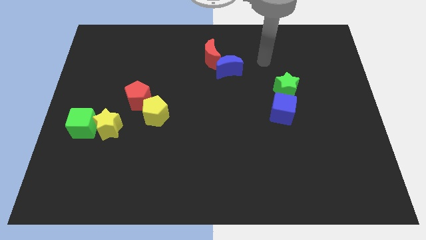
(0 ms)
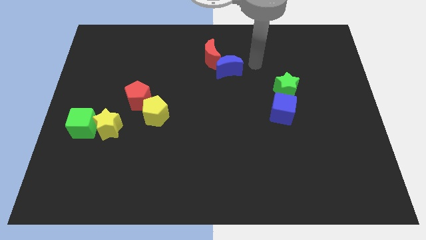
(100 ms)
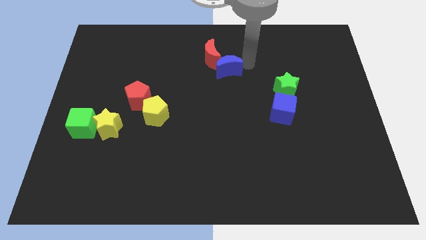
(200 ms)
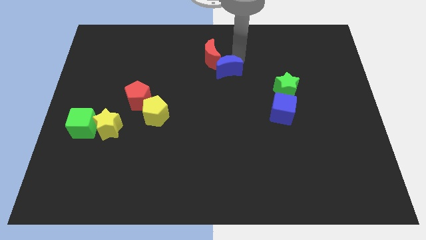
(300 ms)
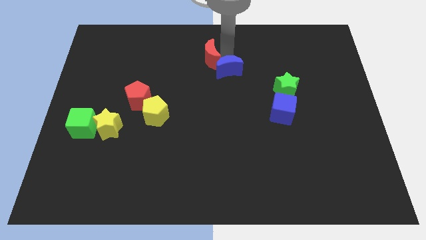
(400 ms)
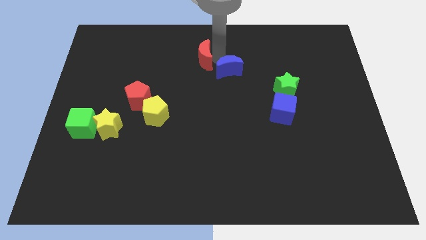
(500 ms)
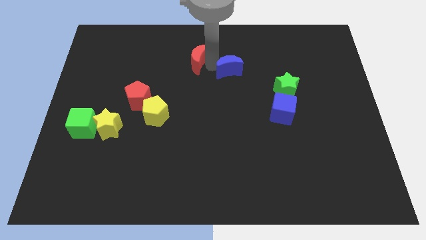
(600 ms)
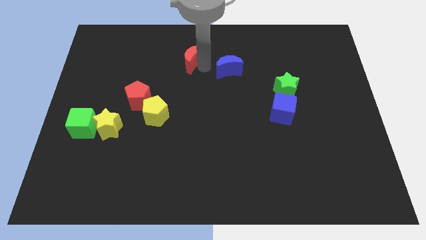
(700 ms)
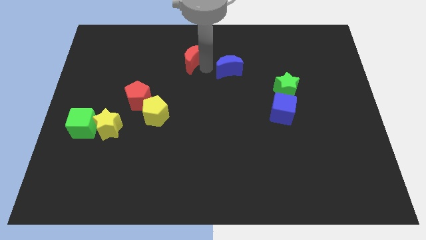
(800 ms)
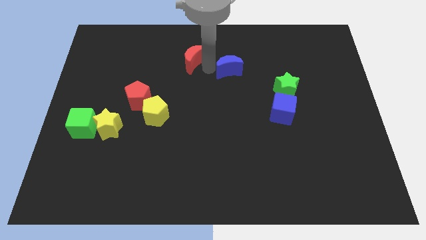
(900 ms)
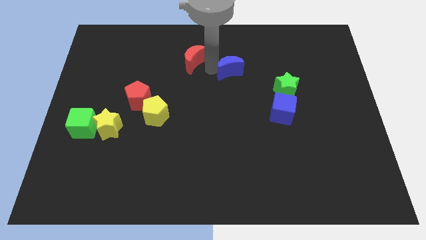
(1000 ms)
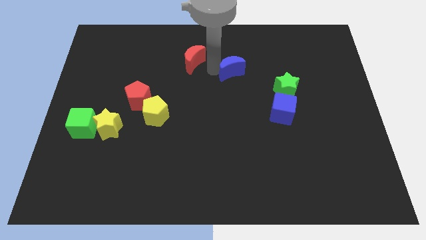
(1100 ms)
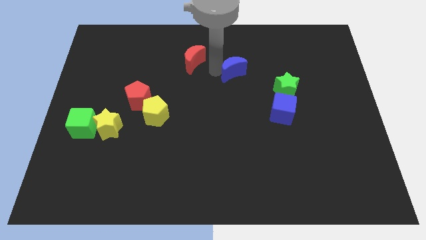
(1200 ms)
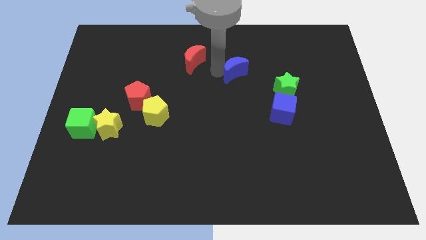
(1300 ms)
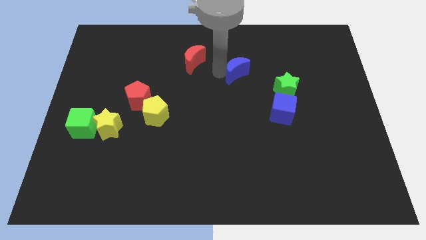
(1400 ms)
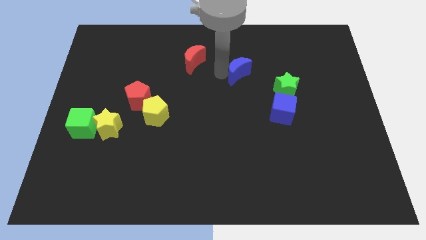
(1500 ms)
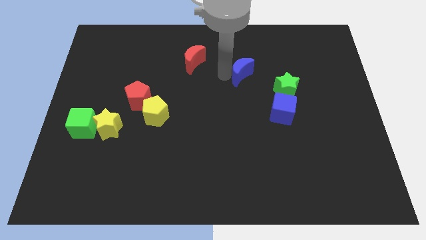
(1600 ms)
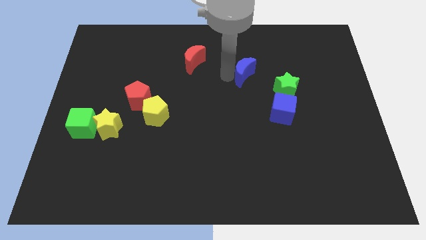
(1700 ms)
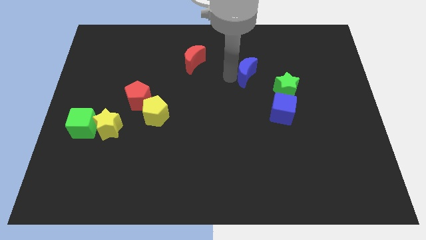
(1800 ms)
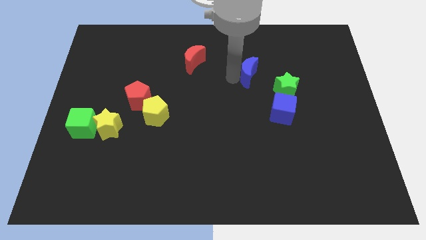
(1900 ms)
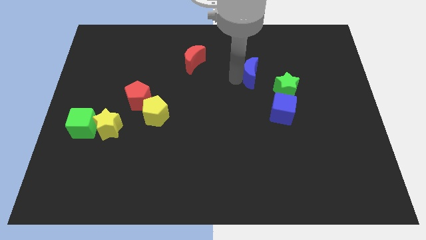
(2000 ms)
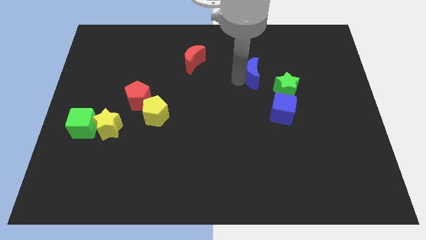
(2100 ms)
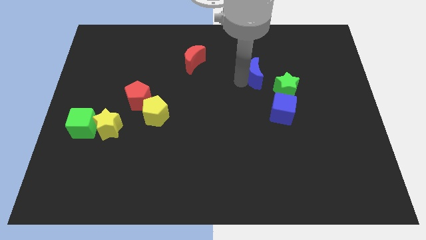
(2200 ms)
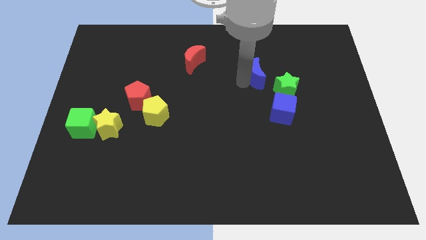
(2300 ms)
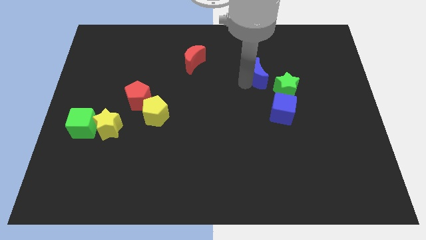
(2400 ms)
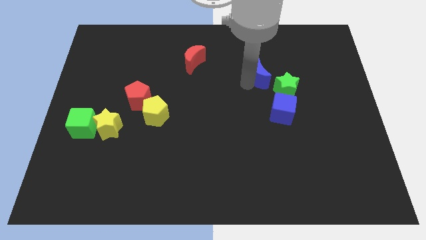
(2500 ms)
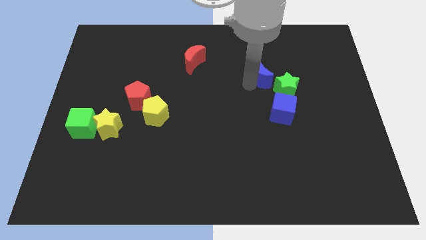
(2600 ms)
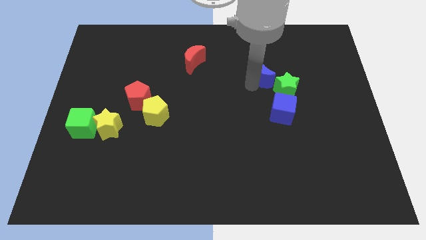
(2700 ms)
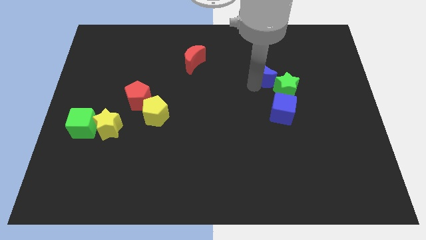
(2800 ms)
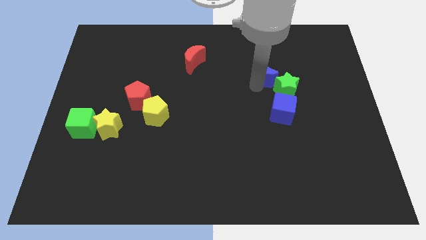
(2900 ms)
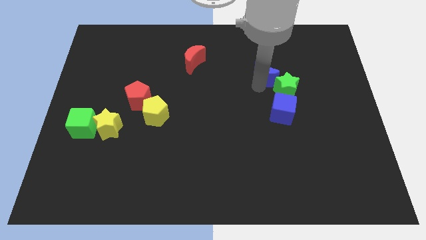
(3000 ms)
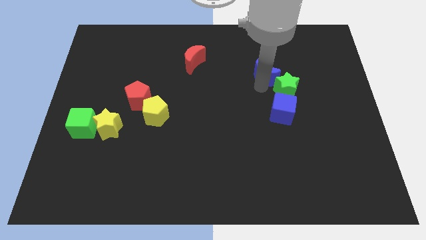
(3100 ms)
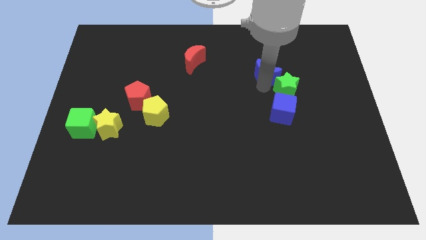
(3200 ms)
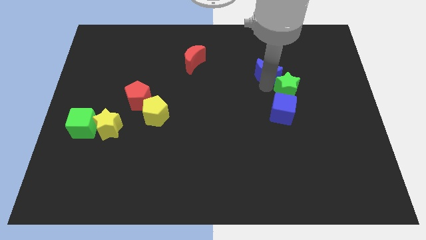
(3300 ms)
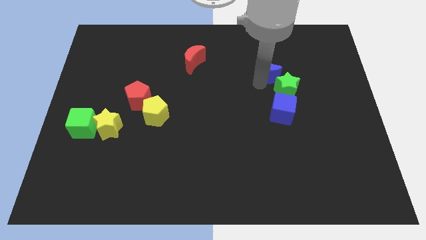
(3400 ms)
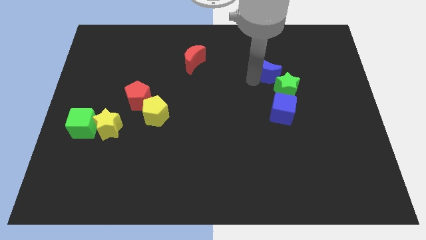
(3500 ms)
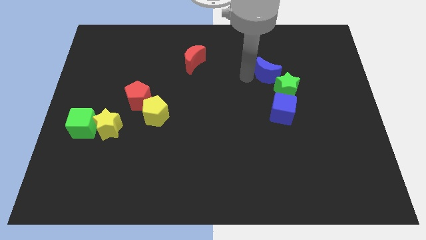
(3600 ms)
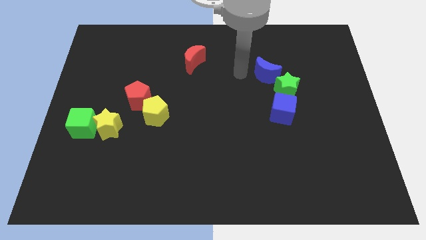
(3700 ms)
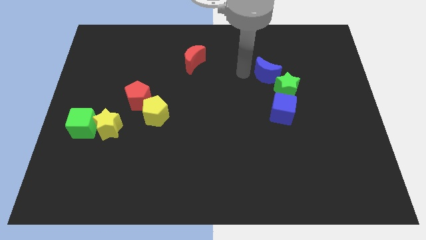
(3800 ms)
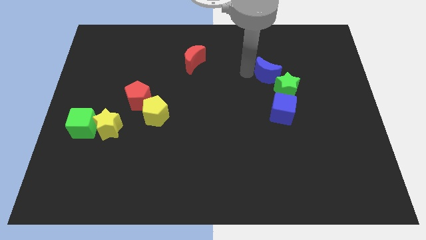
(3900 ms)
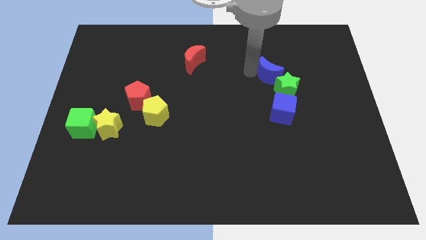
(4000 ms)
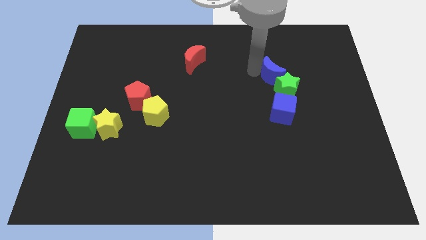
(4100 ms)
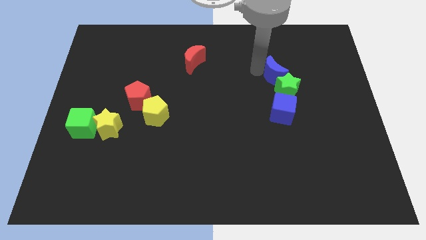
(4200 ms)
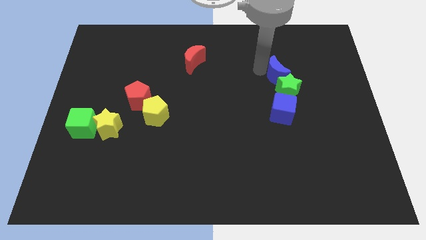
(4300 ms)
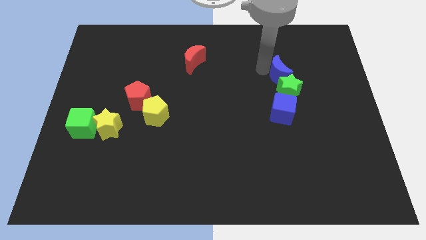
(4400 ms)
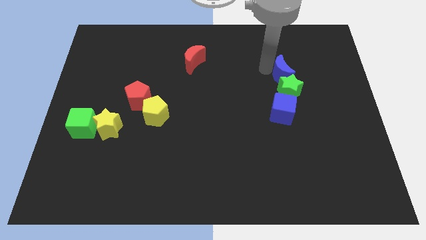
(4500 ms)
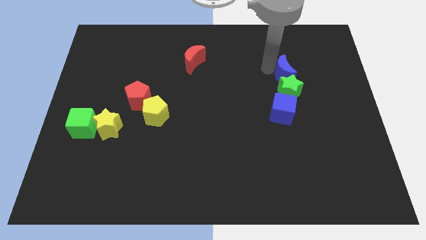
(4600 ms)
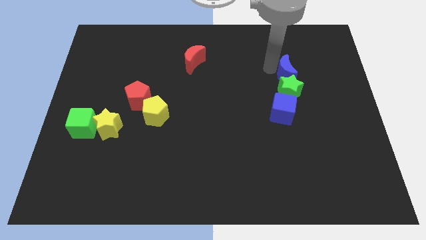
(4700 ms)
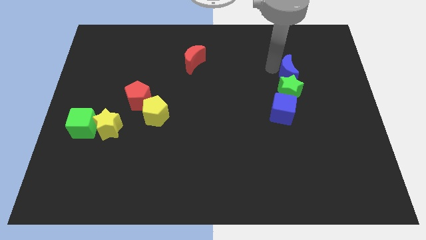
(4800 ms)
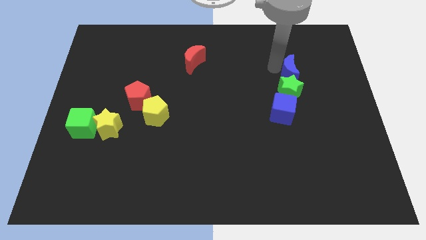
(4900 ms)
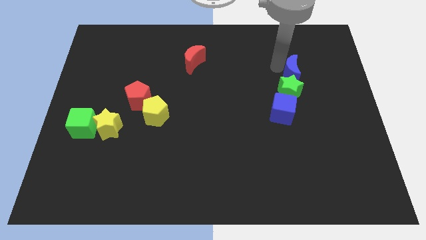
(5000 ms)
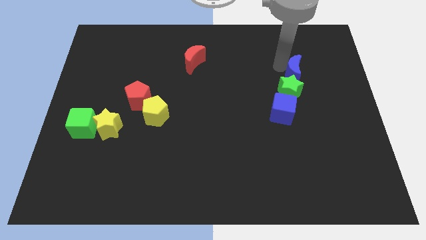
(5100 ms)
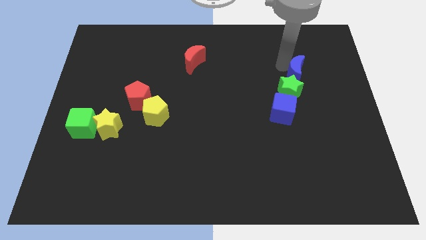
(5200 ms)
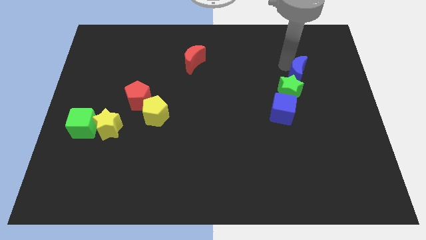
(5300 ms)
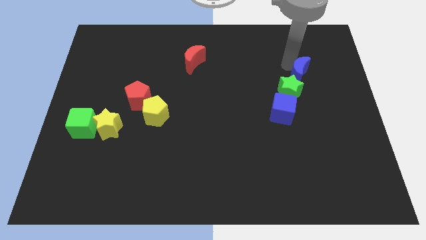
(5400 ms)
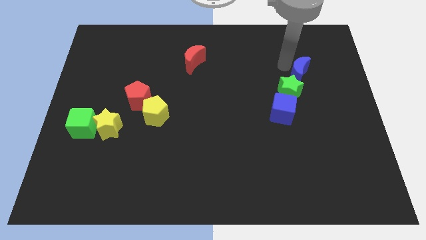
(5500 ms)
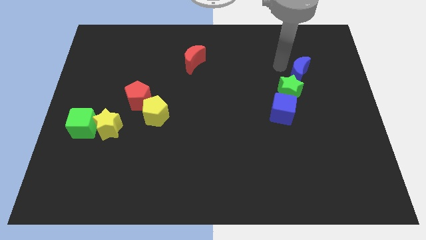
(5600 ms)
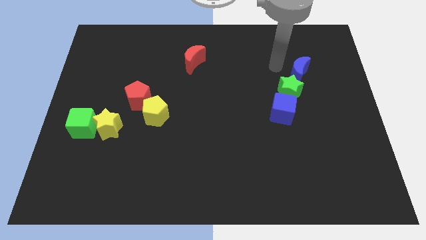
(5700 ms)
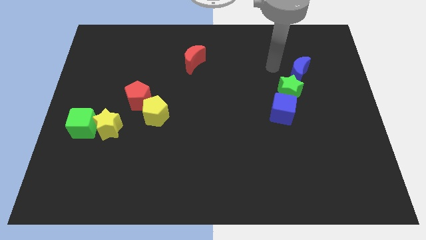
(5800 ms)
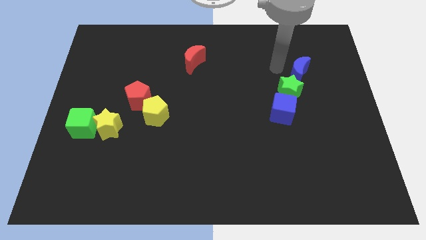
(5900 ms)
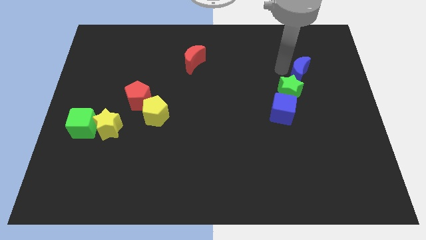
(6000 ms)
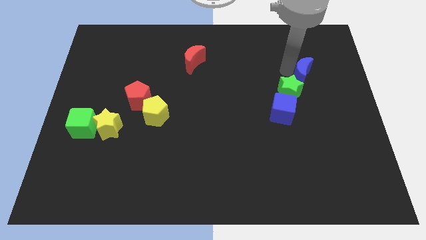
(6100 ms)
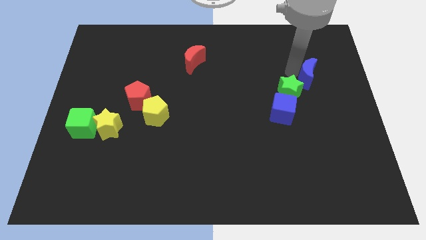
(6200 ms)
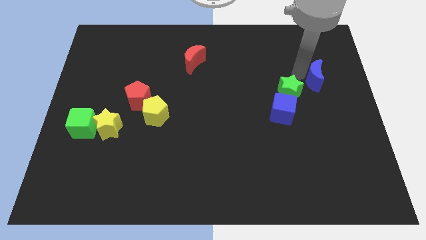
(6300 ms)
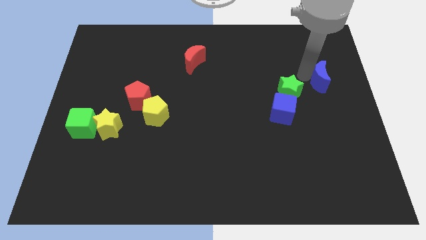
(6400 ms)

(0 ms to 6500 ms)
put the blue moon to the right side
